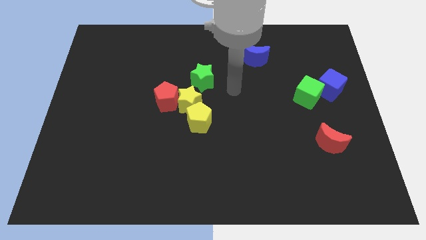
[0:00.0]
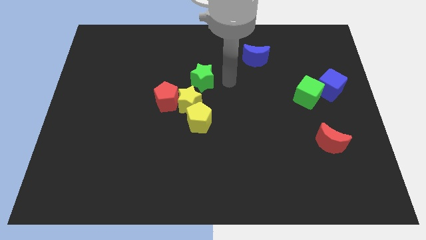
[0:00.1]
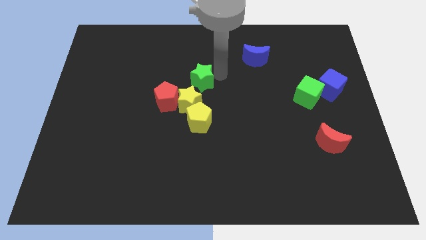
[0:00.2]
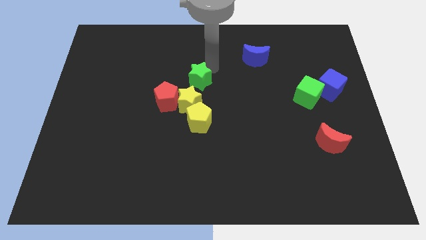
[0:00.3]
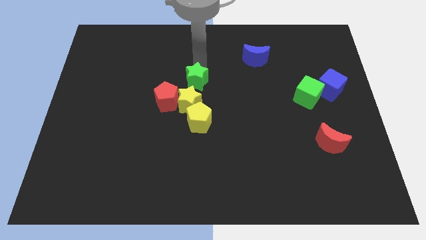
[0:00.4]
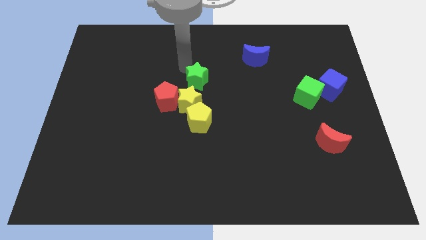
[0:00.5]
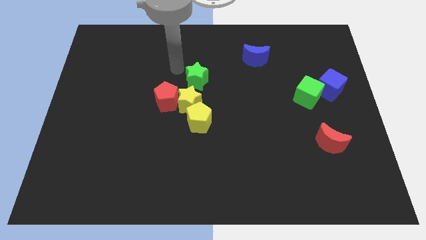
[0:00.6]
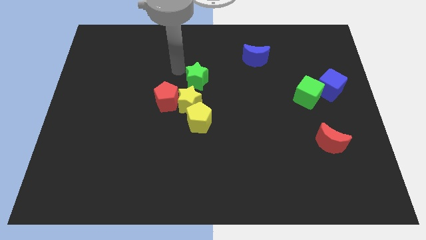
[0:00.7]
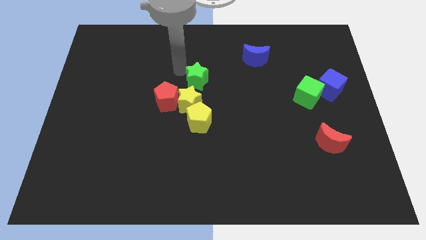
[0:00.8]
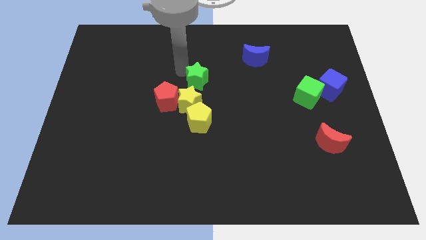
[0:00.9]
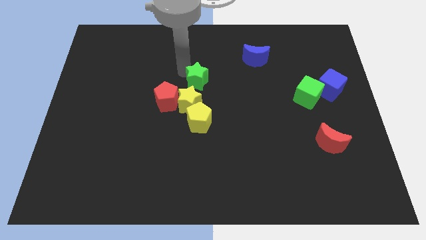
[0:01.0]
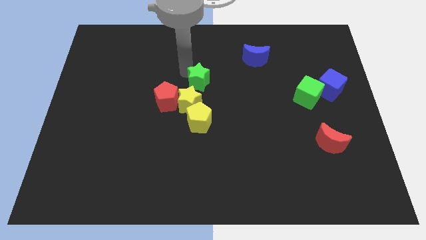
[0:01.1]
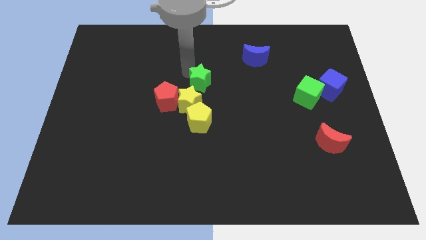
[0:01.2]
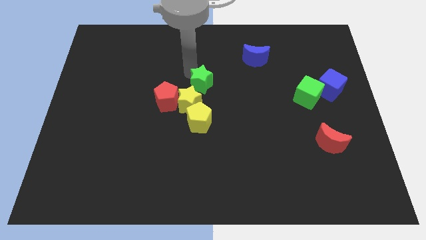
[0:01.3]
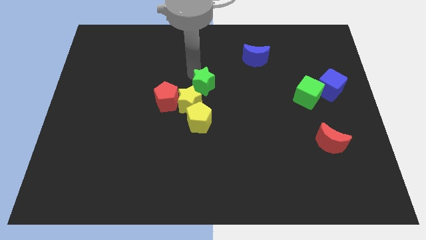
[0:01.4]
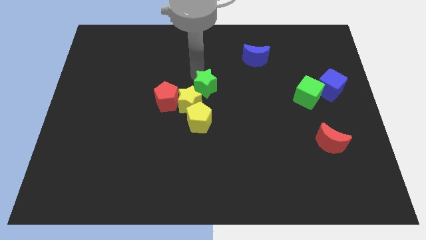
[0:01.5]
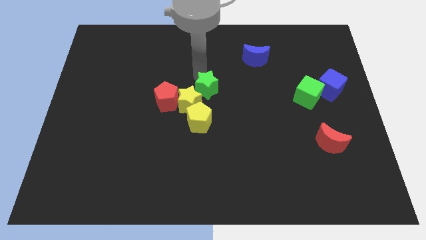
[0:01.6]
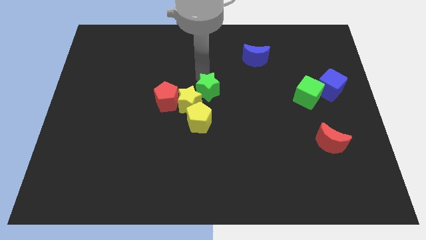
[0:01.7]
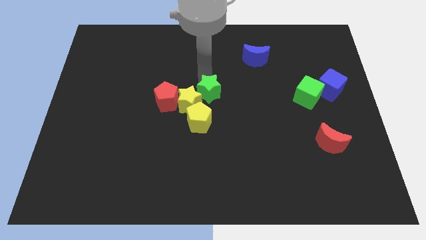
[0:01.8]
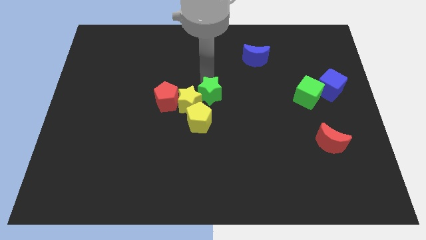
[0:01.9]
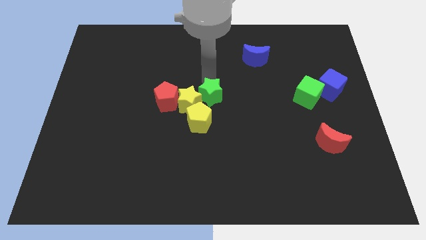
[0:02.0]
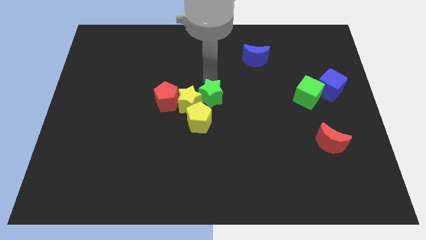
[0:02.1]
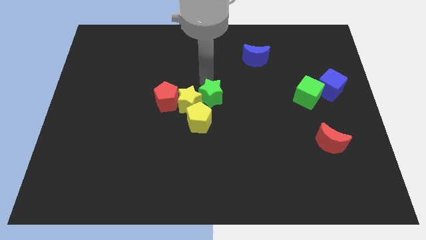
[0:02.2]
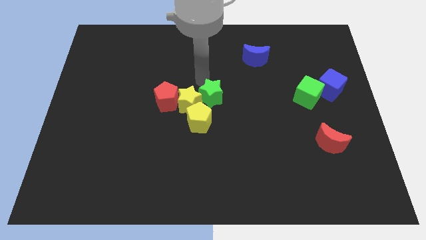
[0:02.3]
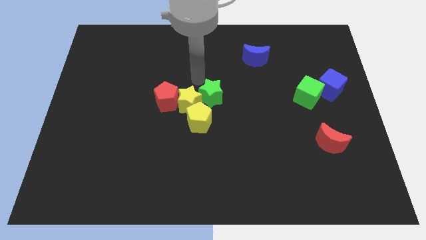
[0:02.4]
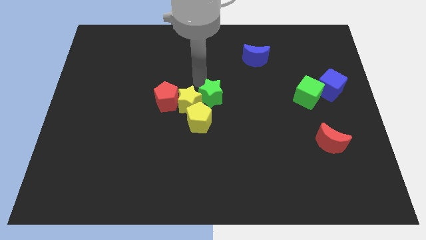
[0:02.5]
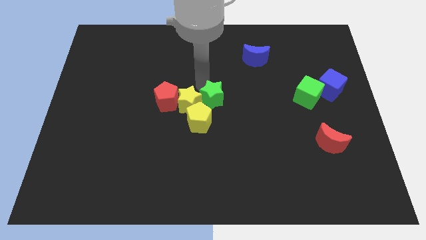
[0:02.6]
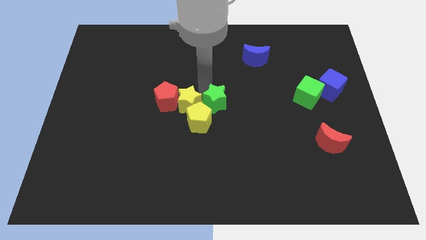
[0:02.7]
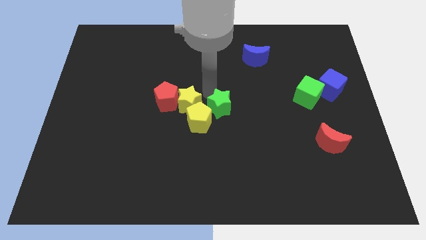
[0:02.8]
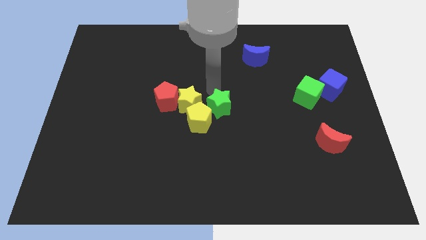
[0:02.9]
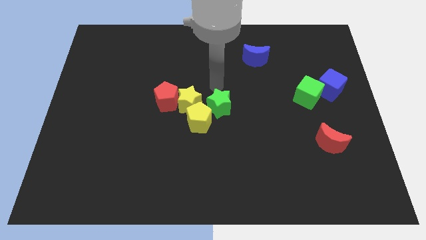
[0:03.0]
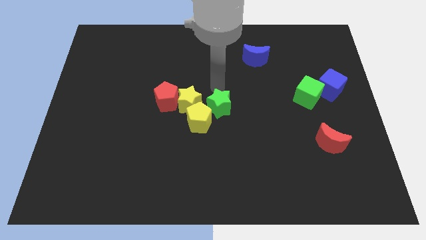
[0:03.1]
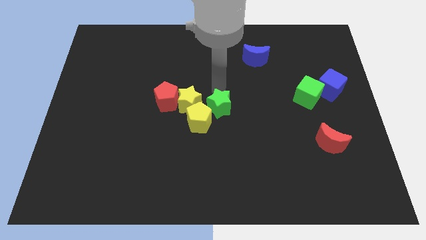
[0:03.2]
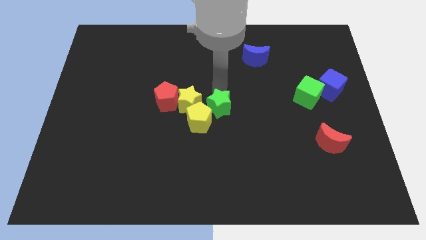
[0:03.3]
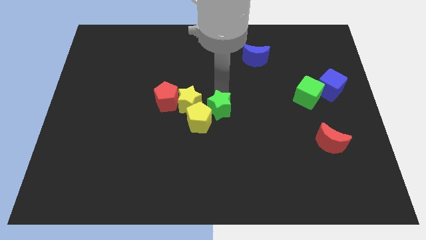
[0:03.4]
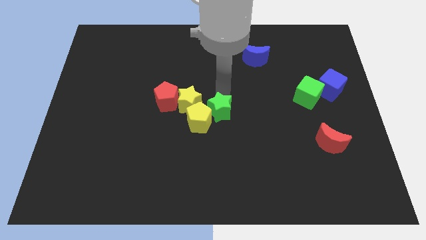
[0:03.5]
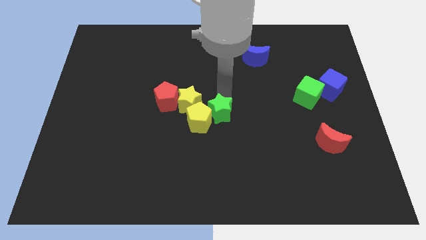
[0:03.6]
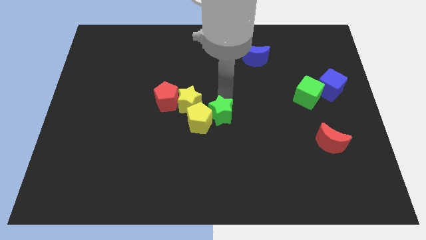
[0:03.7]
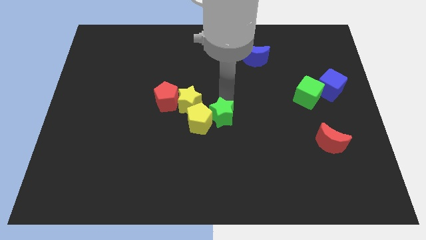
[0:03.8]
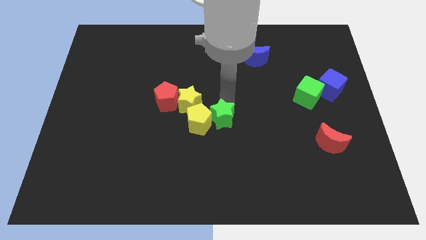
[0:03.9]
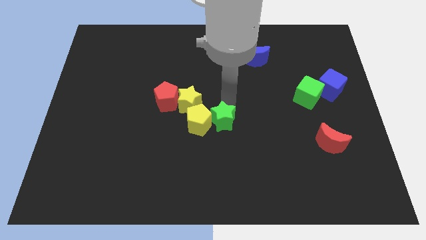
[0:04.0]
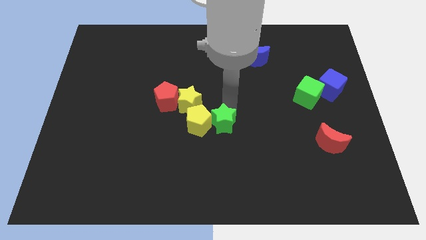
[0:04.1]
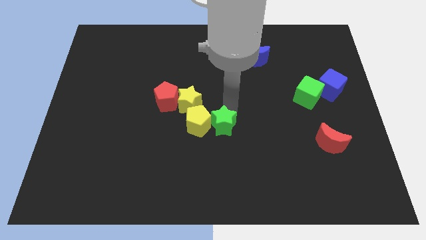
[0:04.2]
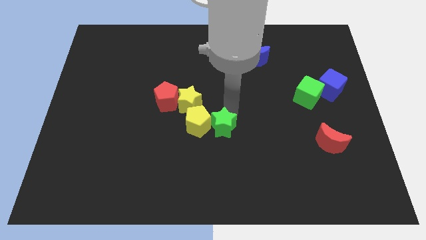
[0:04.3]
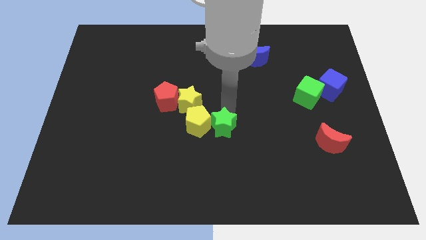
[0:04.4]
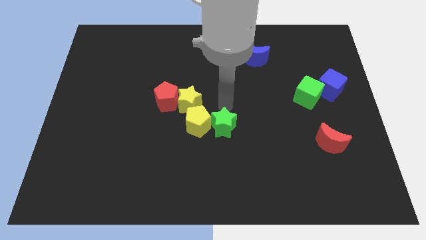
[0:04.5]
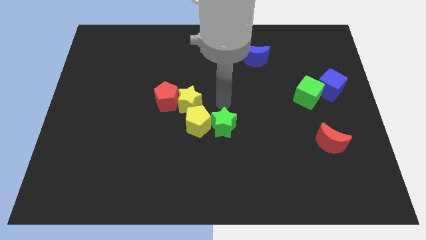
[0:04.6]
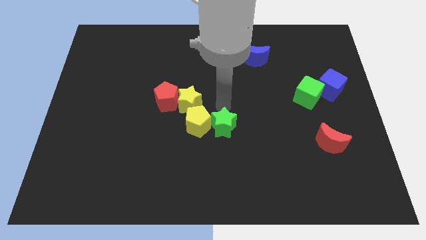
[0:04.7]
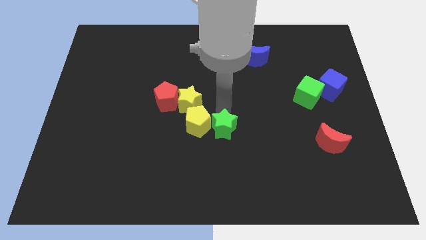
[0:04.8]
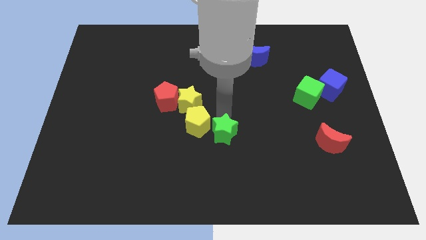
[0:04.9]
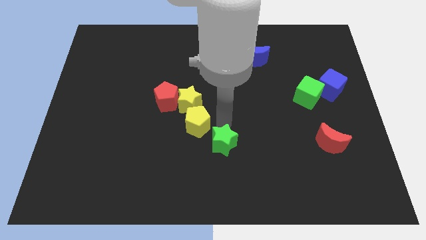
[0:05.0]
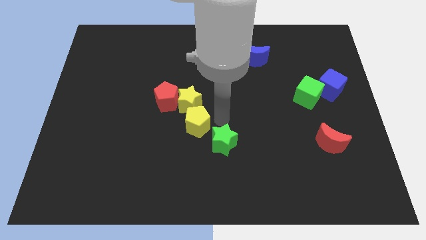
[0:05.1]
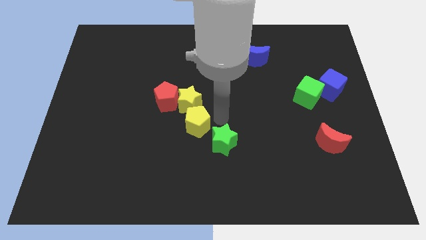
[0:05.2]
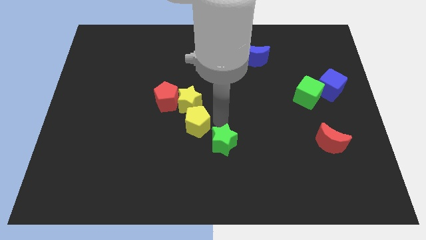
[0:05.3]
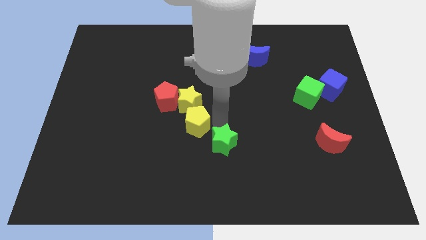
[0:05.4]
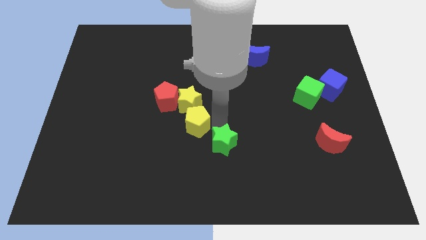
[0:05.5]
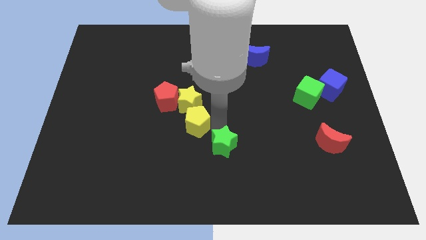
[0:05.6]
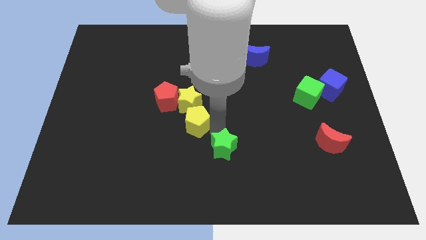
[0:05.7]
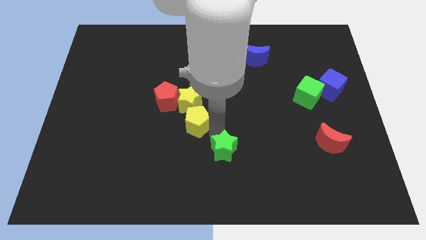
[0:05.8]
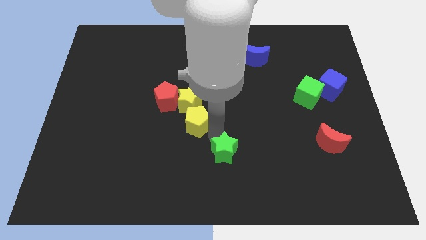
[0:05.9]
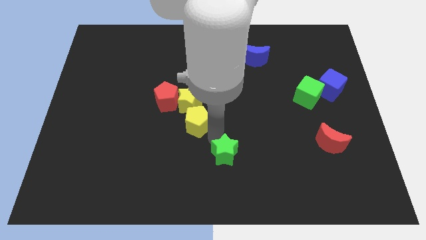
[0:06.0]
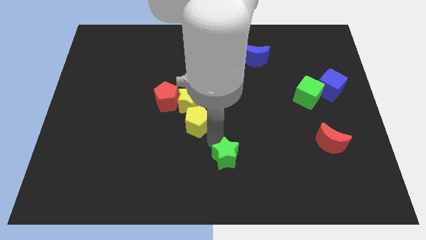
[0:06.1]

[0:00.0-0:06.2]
slide the green star to the bottom side
